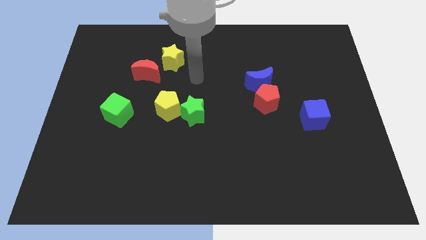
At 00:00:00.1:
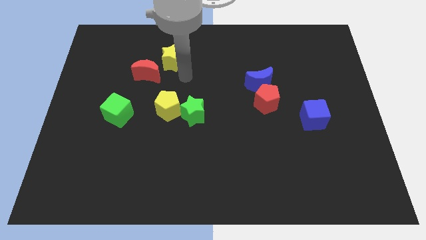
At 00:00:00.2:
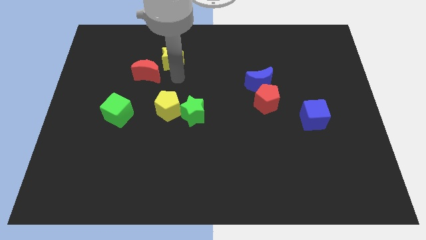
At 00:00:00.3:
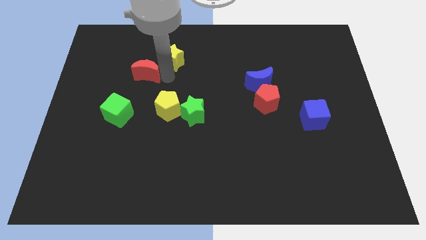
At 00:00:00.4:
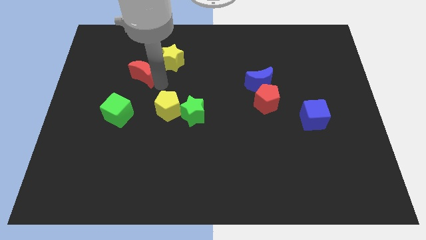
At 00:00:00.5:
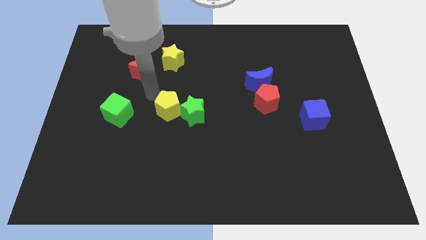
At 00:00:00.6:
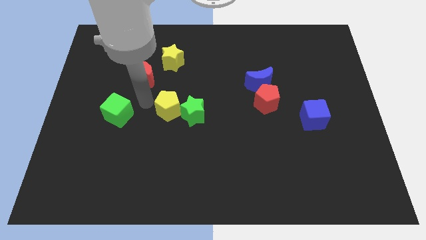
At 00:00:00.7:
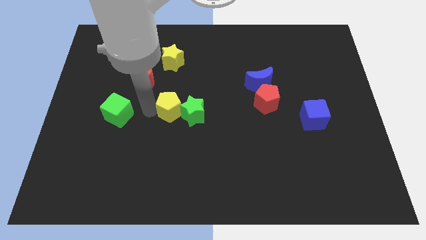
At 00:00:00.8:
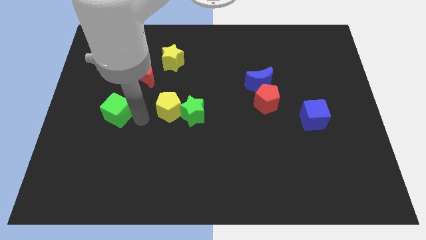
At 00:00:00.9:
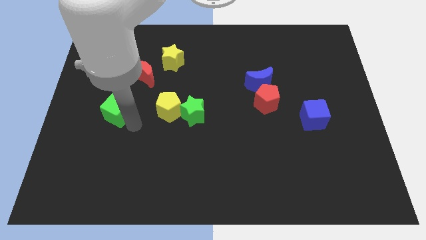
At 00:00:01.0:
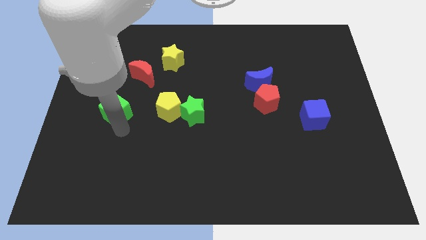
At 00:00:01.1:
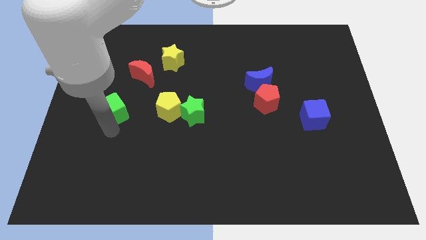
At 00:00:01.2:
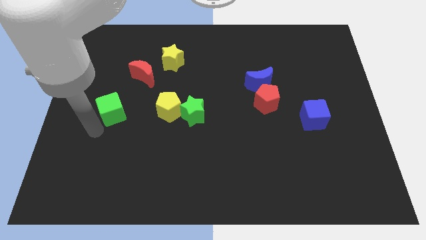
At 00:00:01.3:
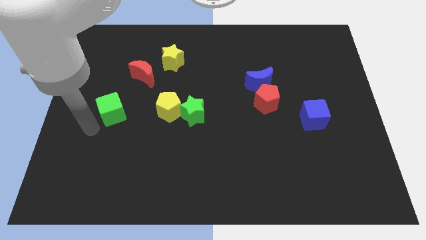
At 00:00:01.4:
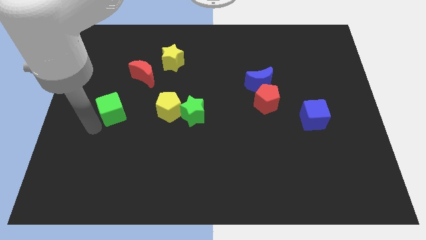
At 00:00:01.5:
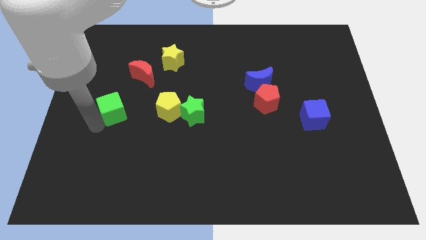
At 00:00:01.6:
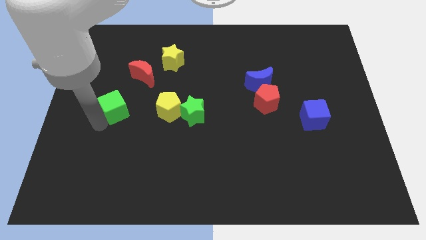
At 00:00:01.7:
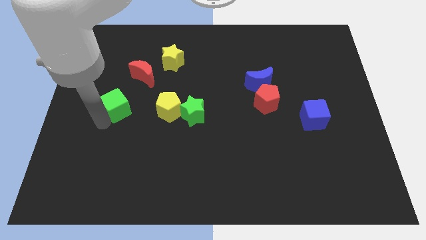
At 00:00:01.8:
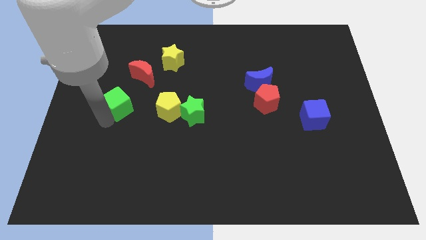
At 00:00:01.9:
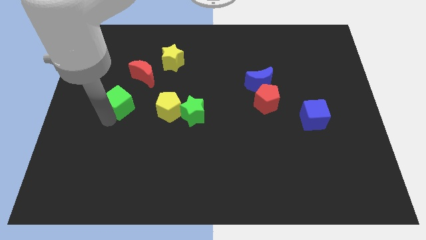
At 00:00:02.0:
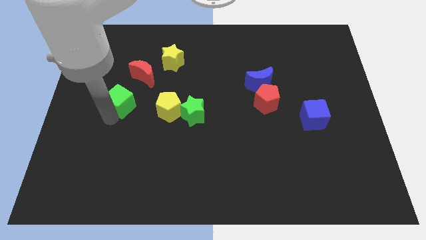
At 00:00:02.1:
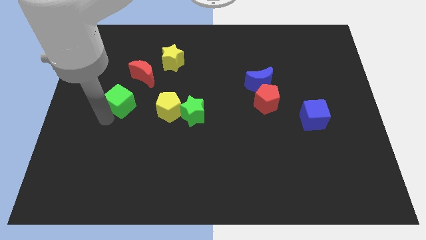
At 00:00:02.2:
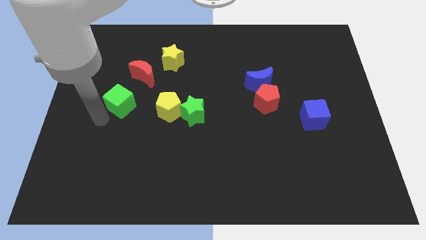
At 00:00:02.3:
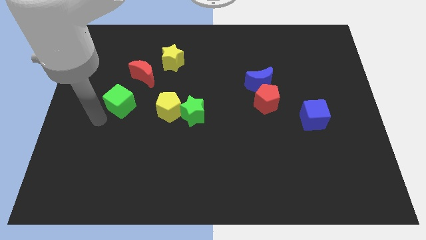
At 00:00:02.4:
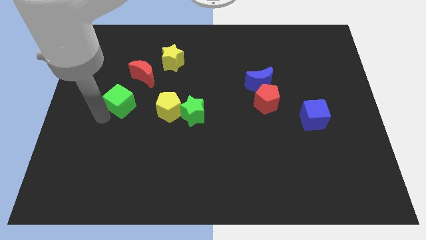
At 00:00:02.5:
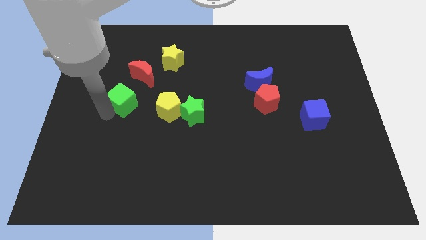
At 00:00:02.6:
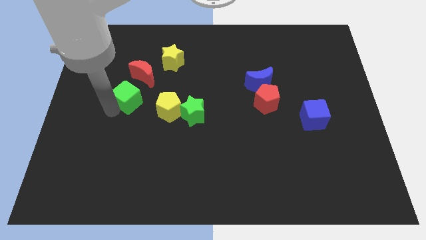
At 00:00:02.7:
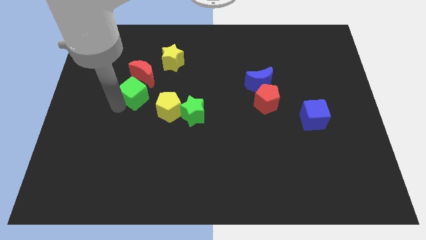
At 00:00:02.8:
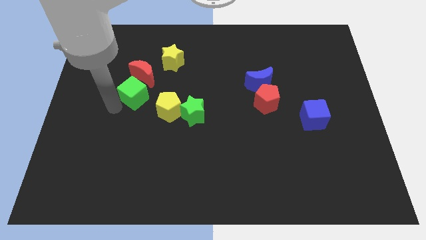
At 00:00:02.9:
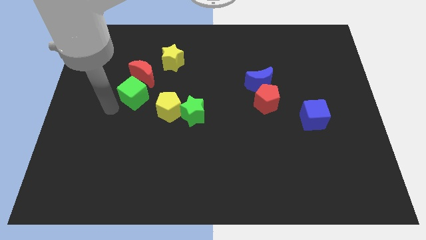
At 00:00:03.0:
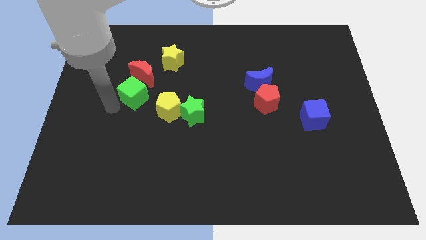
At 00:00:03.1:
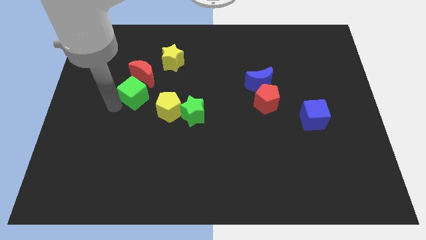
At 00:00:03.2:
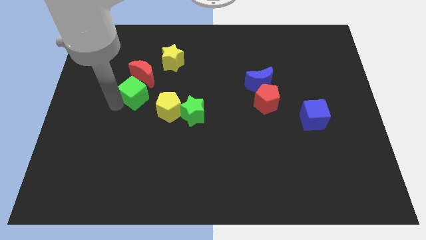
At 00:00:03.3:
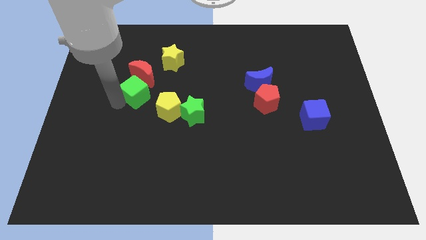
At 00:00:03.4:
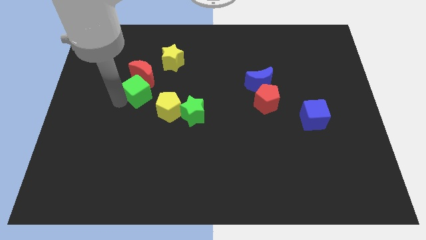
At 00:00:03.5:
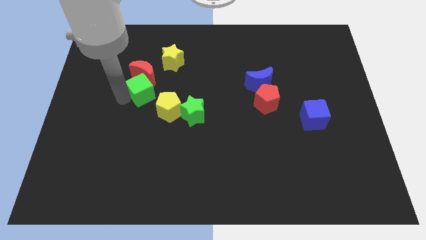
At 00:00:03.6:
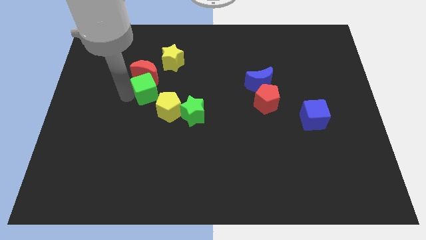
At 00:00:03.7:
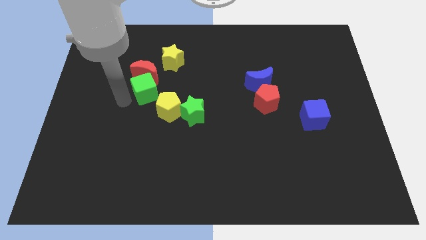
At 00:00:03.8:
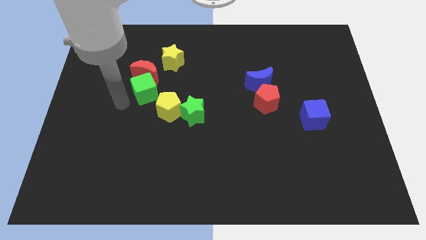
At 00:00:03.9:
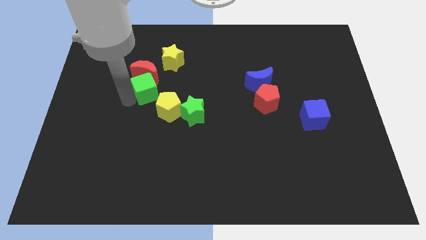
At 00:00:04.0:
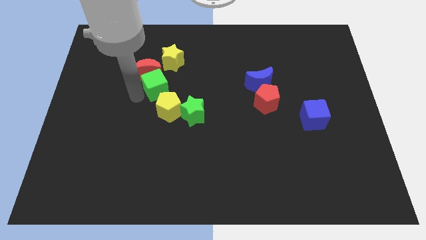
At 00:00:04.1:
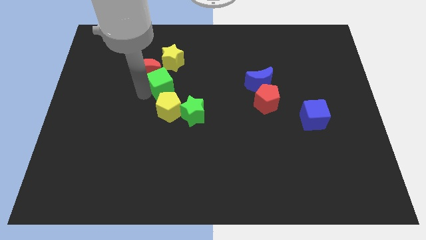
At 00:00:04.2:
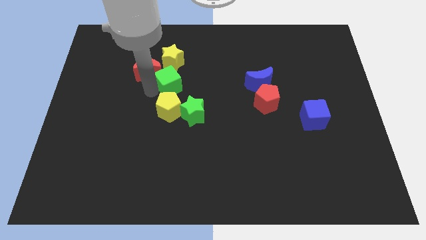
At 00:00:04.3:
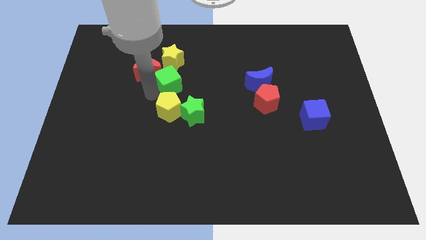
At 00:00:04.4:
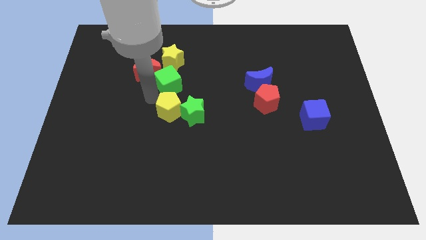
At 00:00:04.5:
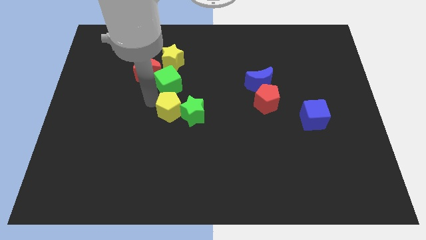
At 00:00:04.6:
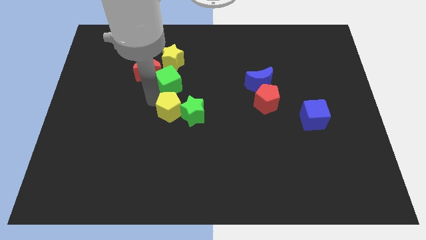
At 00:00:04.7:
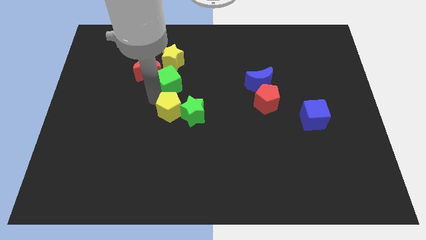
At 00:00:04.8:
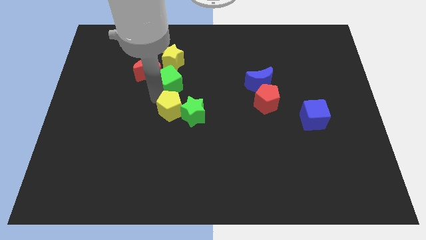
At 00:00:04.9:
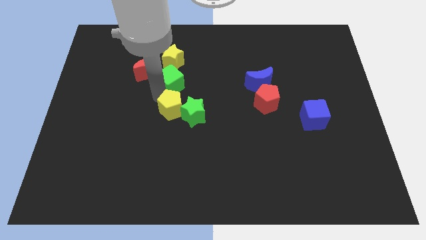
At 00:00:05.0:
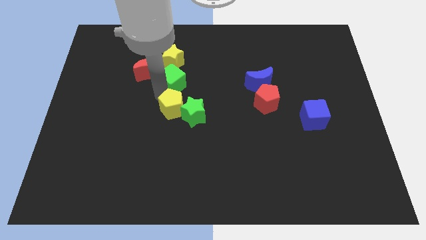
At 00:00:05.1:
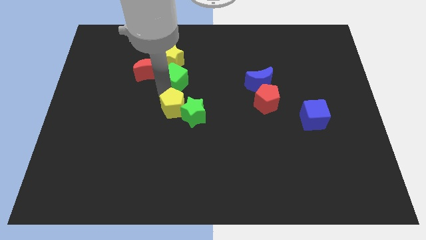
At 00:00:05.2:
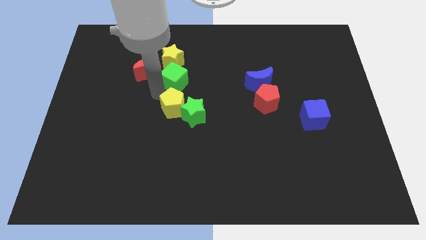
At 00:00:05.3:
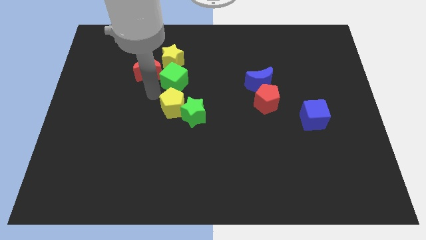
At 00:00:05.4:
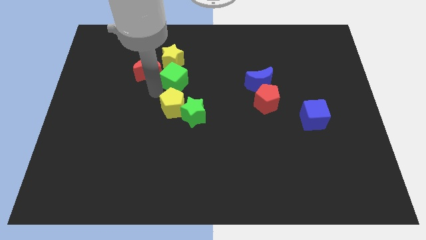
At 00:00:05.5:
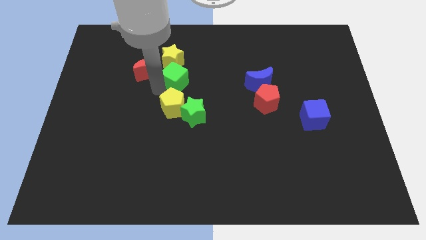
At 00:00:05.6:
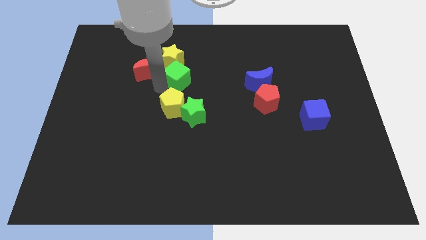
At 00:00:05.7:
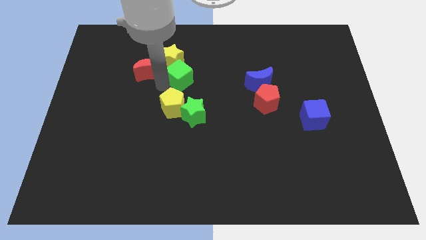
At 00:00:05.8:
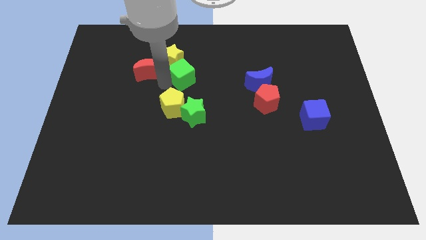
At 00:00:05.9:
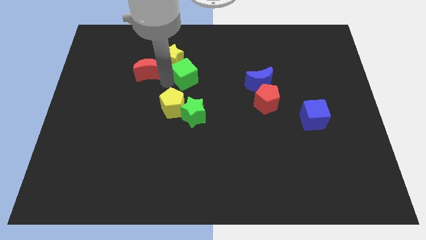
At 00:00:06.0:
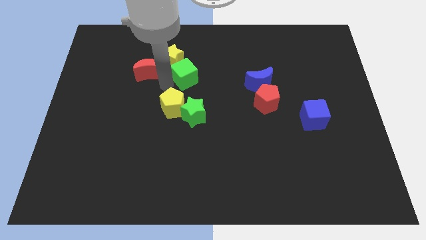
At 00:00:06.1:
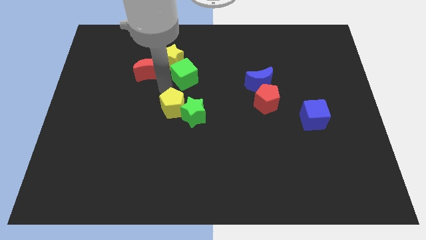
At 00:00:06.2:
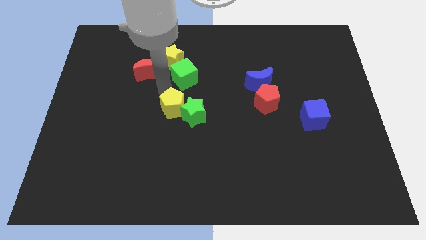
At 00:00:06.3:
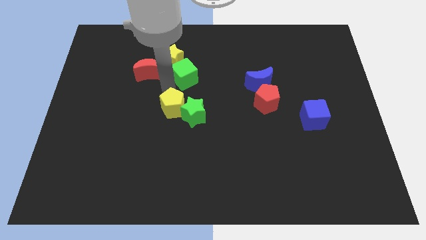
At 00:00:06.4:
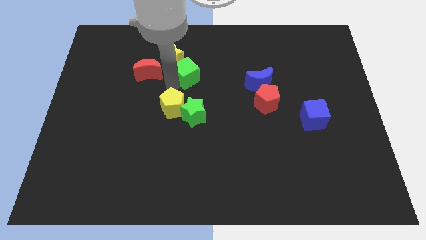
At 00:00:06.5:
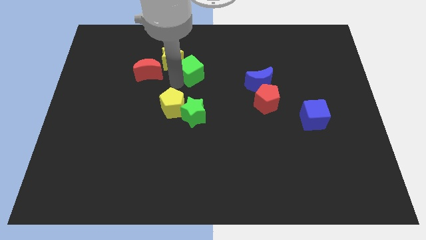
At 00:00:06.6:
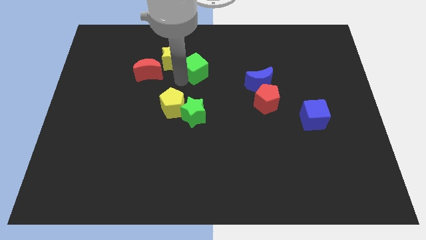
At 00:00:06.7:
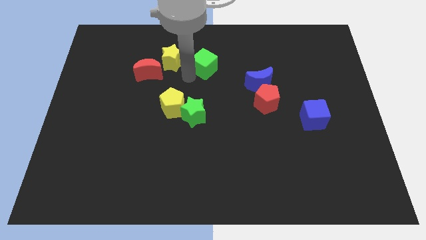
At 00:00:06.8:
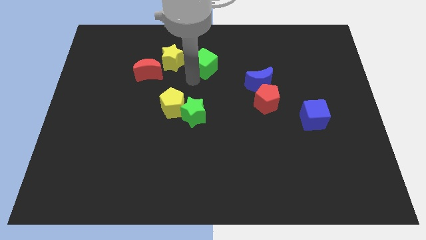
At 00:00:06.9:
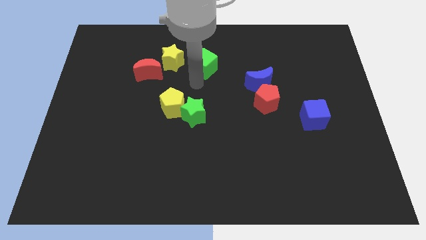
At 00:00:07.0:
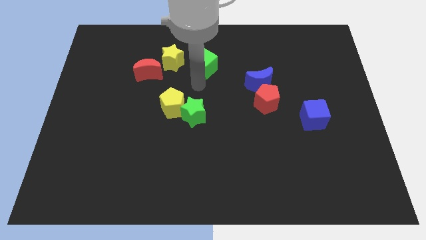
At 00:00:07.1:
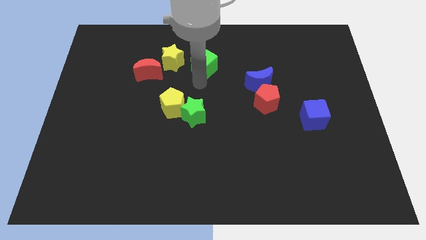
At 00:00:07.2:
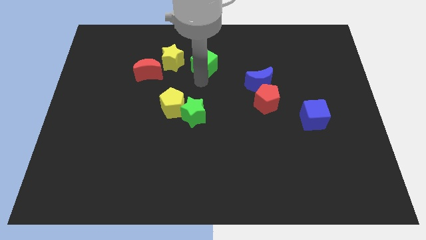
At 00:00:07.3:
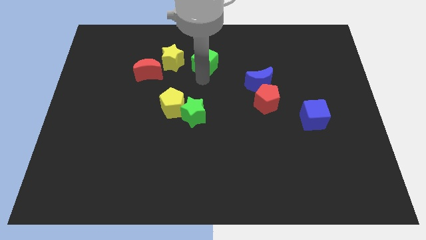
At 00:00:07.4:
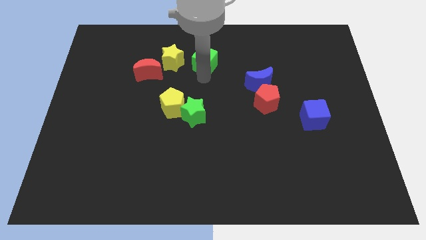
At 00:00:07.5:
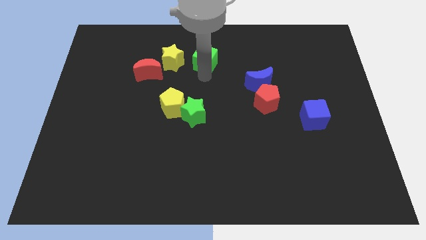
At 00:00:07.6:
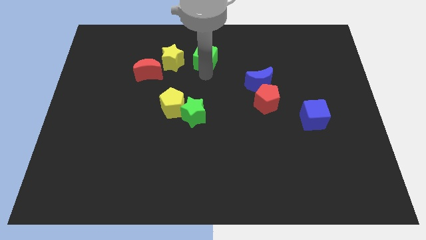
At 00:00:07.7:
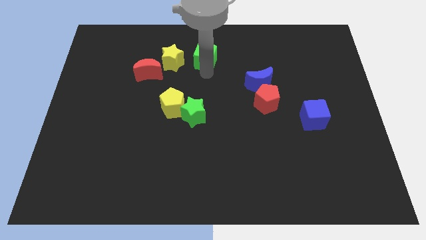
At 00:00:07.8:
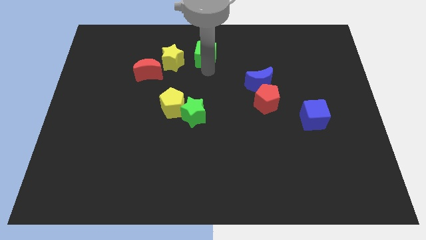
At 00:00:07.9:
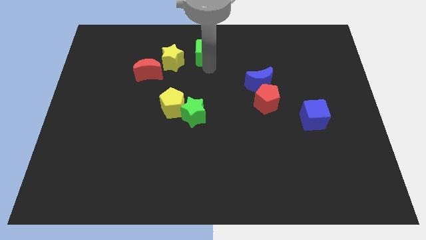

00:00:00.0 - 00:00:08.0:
push the green cube to the top

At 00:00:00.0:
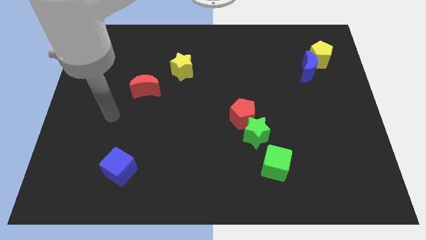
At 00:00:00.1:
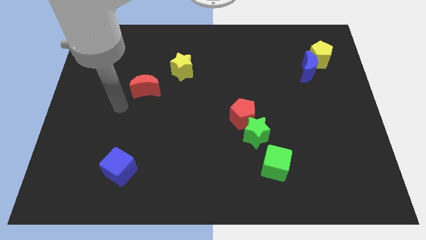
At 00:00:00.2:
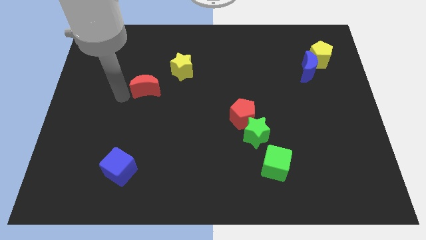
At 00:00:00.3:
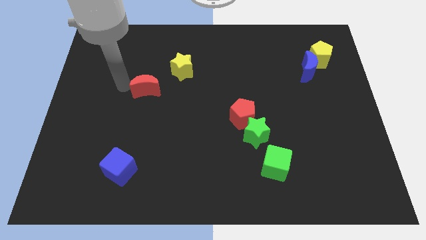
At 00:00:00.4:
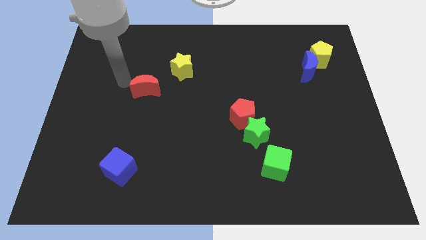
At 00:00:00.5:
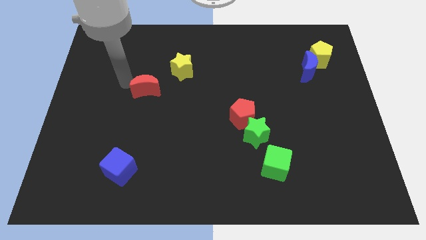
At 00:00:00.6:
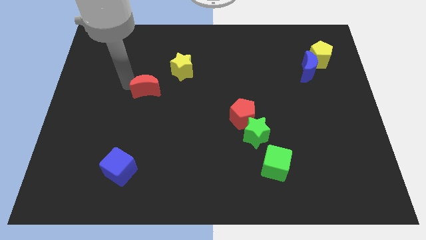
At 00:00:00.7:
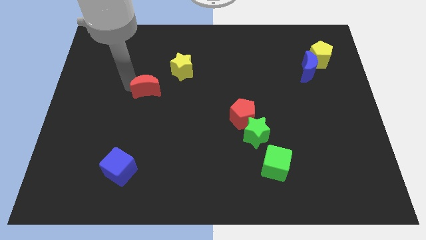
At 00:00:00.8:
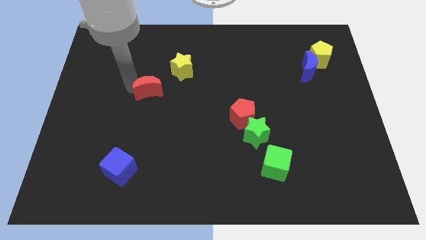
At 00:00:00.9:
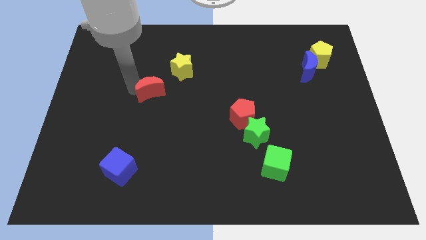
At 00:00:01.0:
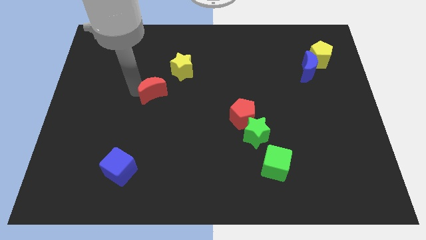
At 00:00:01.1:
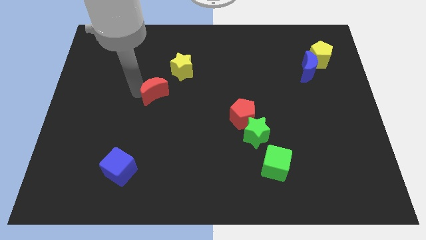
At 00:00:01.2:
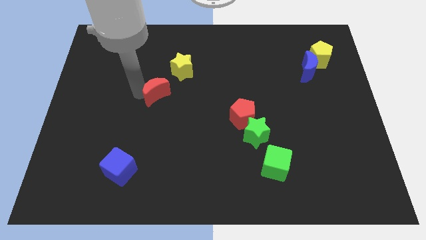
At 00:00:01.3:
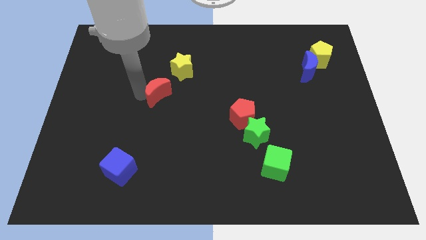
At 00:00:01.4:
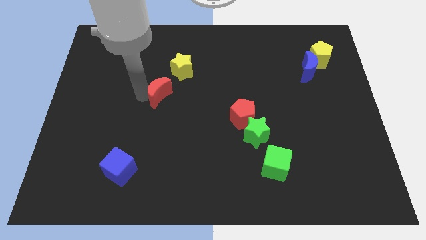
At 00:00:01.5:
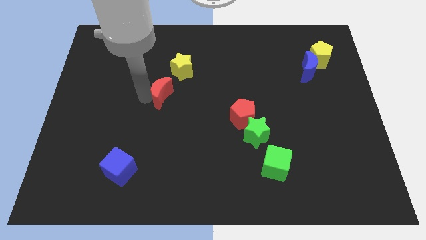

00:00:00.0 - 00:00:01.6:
put the red moon to the middle
